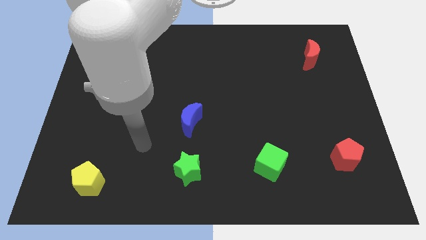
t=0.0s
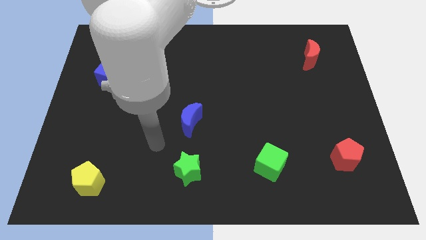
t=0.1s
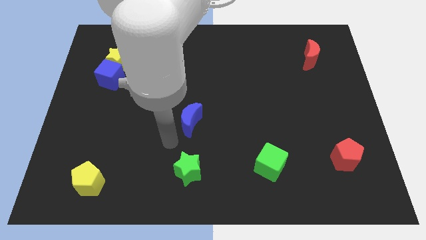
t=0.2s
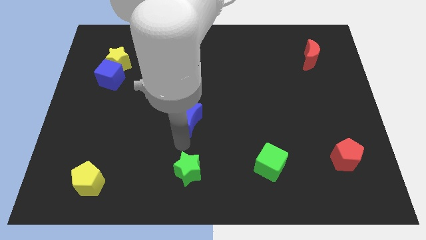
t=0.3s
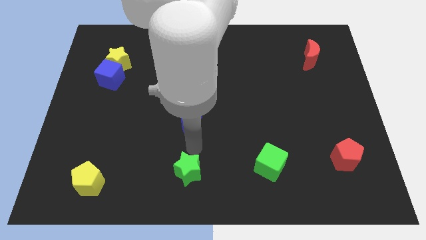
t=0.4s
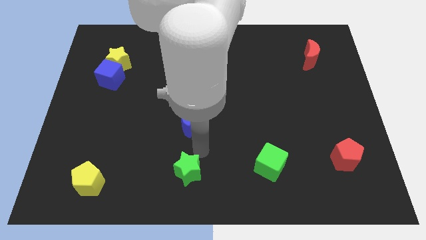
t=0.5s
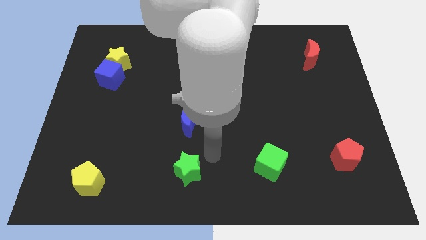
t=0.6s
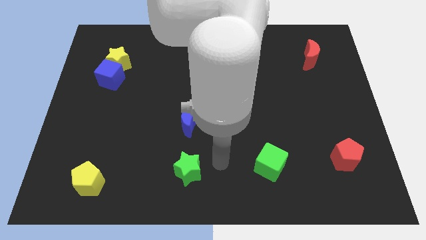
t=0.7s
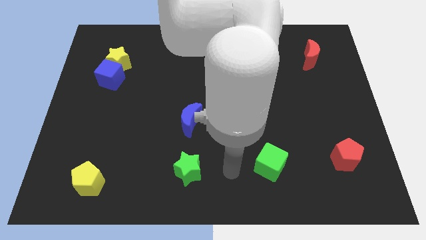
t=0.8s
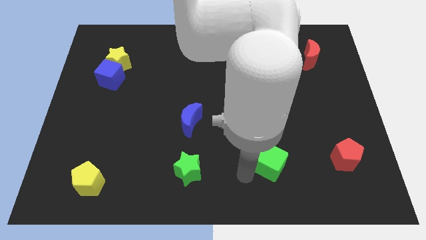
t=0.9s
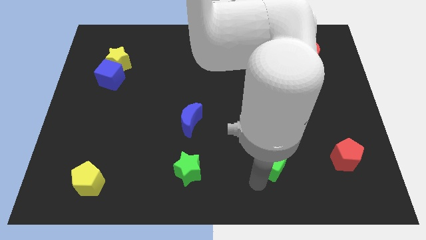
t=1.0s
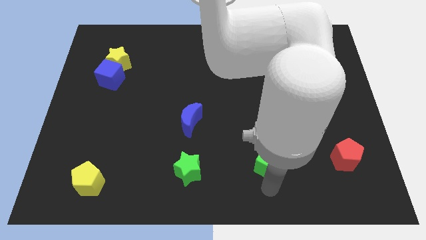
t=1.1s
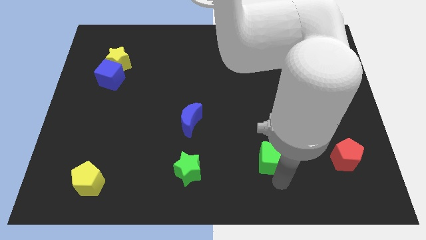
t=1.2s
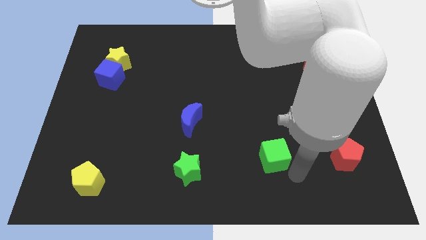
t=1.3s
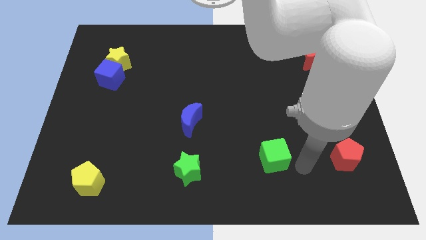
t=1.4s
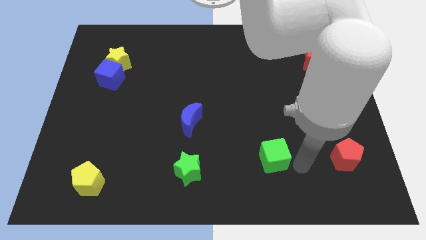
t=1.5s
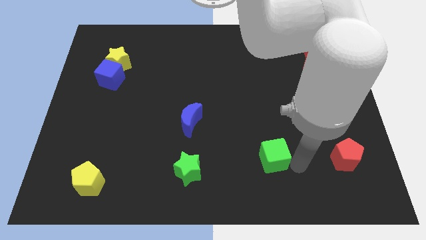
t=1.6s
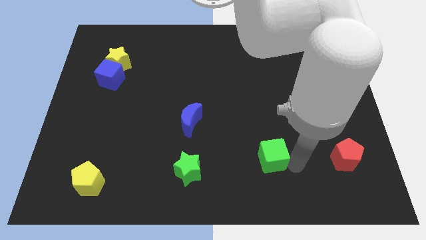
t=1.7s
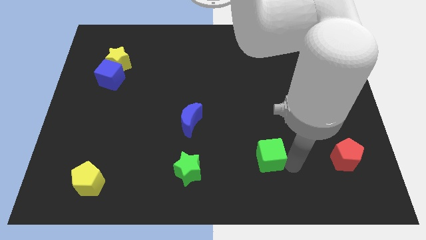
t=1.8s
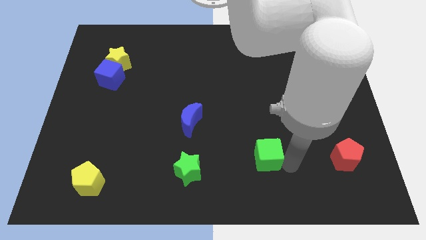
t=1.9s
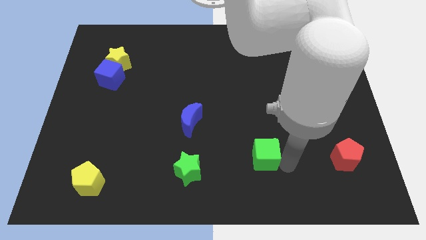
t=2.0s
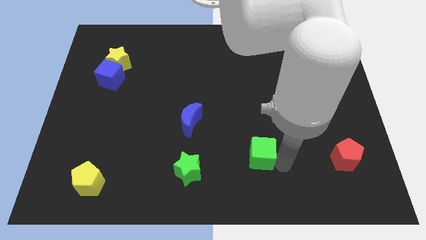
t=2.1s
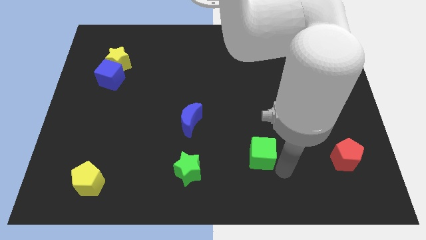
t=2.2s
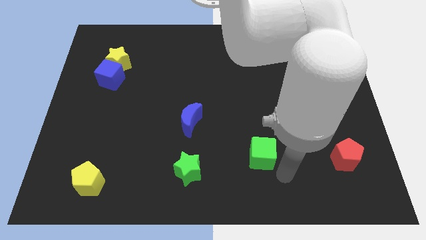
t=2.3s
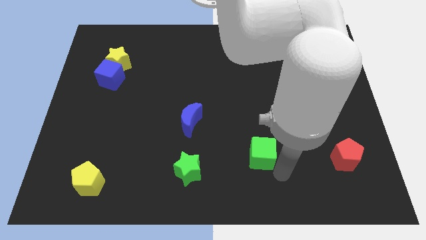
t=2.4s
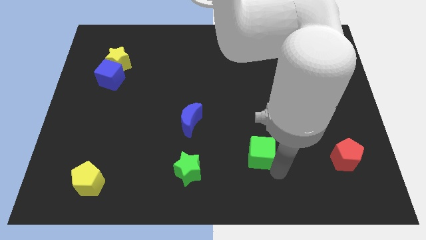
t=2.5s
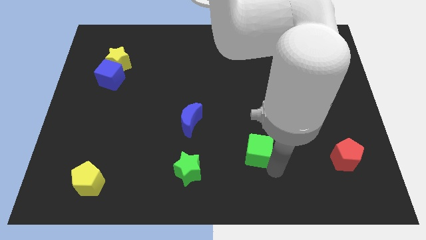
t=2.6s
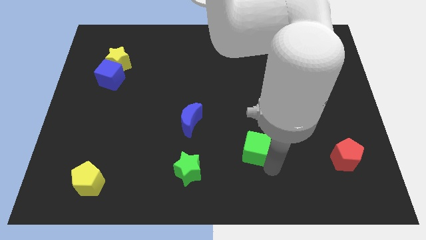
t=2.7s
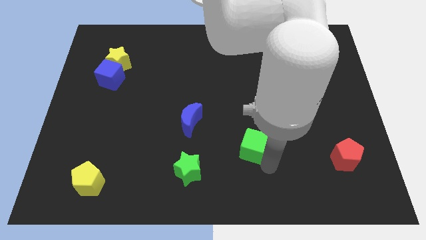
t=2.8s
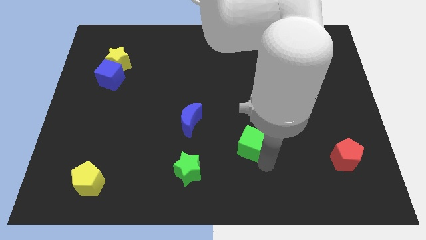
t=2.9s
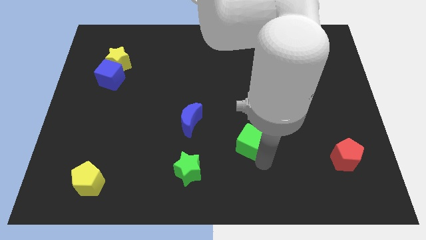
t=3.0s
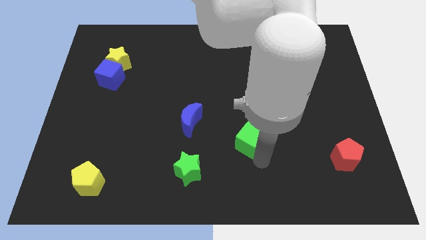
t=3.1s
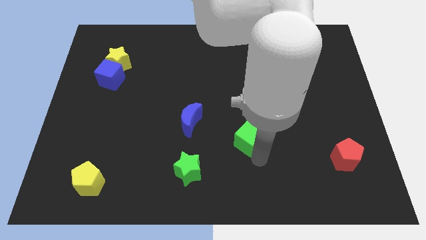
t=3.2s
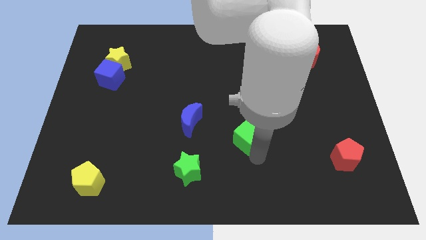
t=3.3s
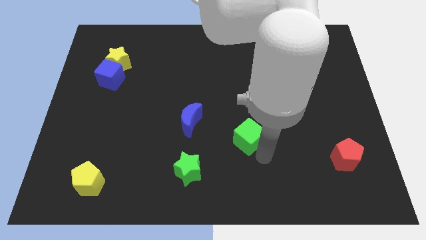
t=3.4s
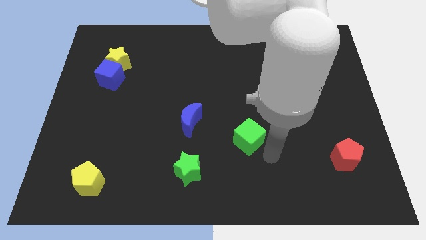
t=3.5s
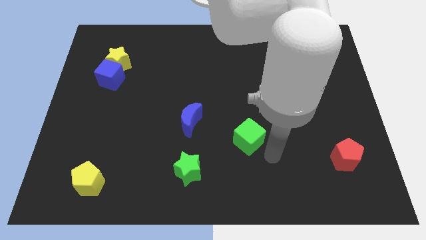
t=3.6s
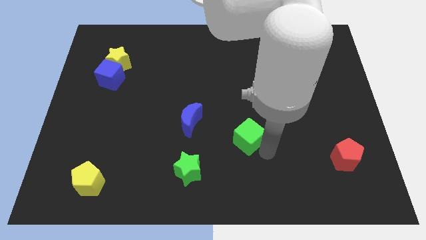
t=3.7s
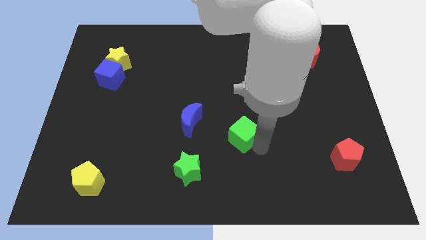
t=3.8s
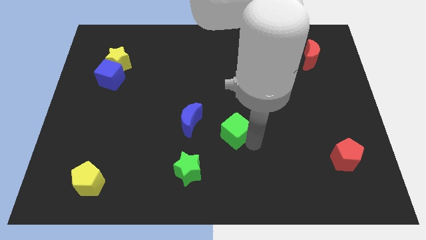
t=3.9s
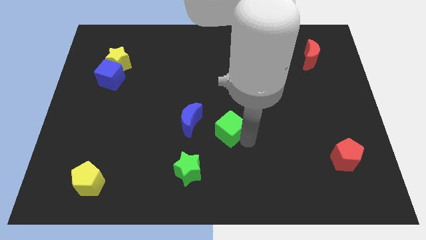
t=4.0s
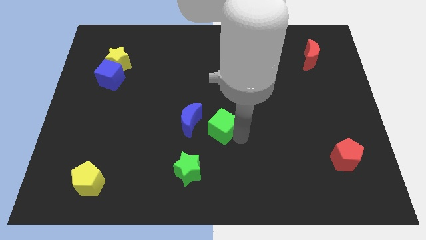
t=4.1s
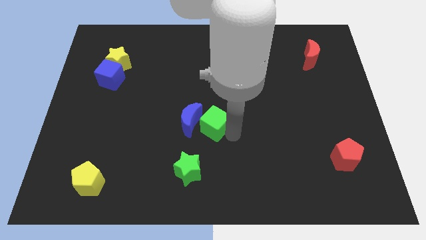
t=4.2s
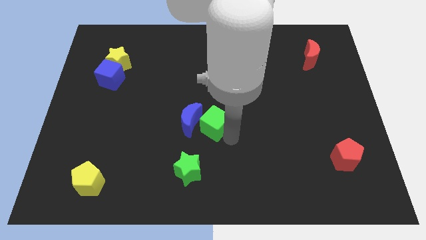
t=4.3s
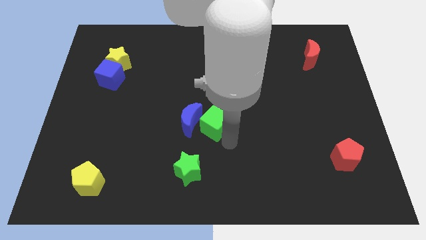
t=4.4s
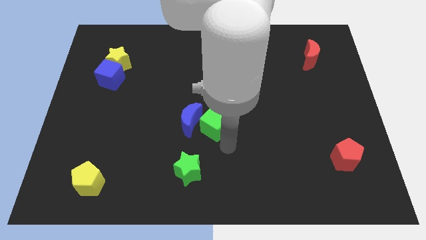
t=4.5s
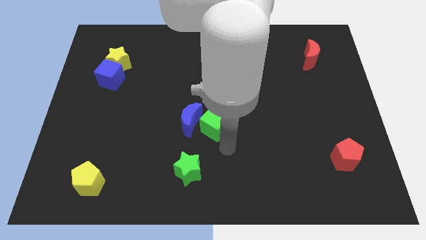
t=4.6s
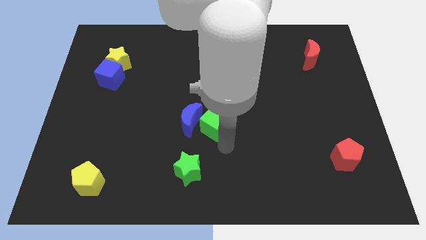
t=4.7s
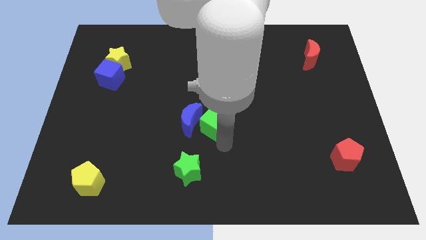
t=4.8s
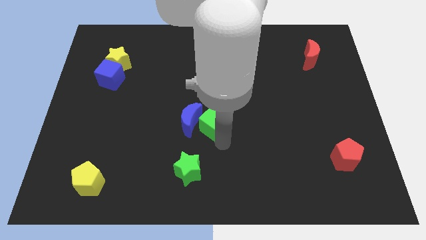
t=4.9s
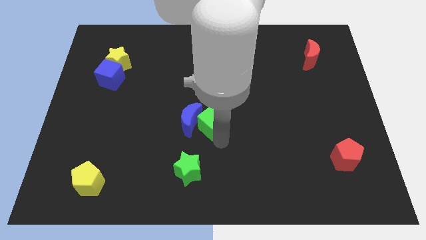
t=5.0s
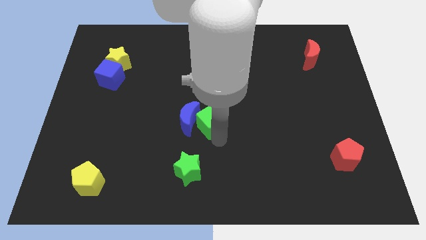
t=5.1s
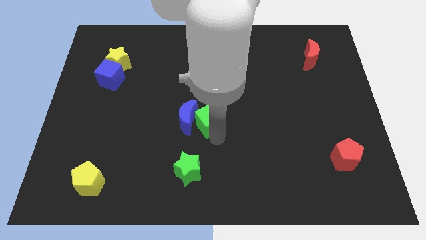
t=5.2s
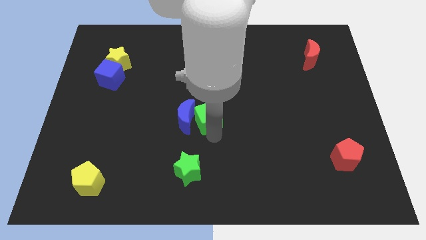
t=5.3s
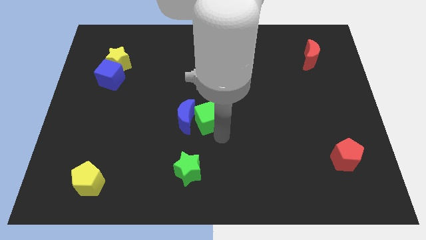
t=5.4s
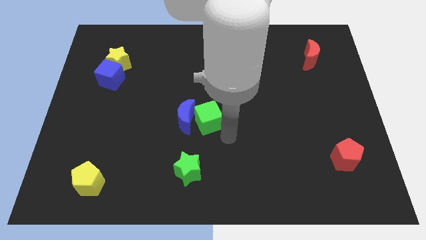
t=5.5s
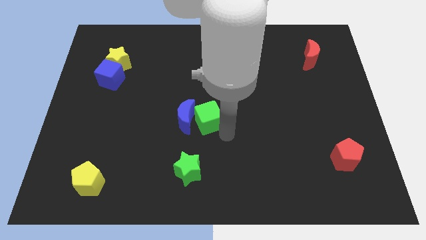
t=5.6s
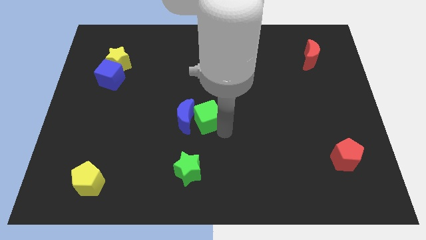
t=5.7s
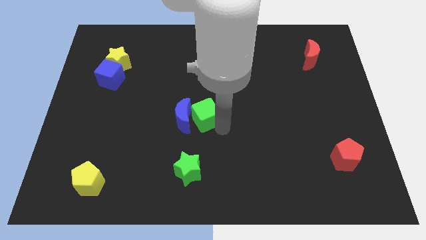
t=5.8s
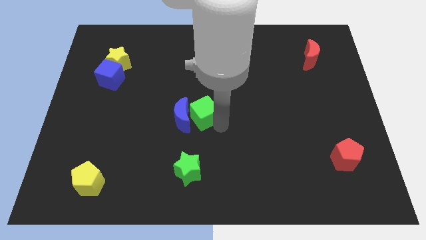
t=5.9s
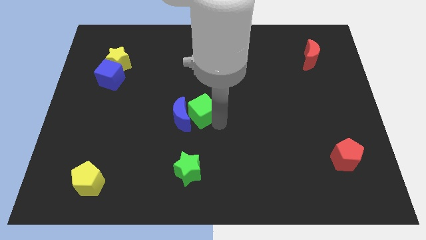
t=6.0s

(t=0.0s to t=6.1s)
slide the green cube up and to the left

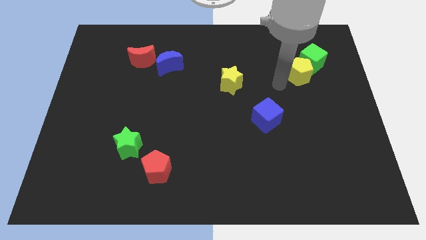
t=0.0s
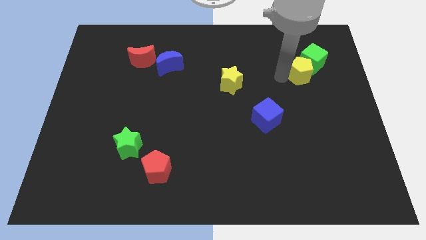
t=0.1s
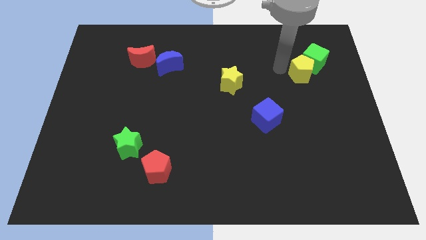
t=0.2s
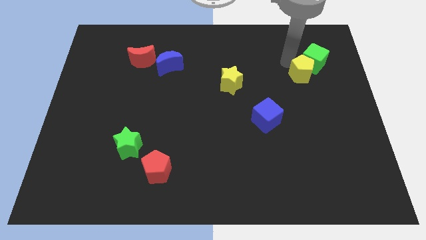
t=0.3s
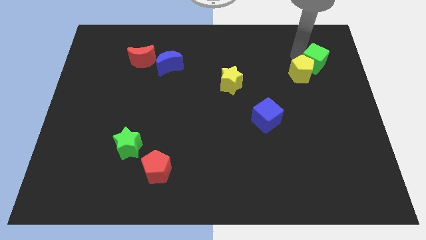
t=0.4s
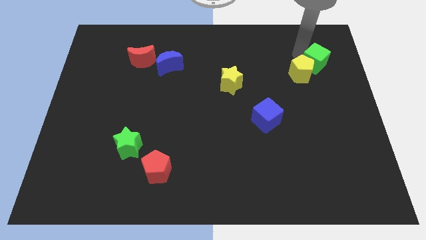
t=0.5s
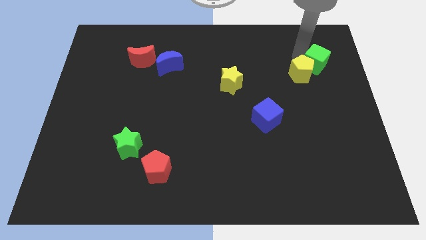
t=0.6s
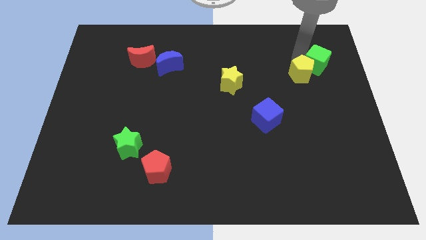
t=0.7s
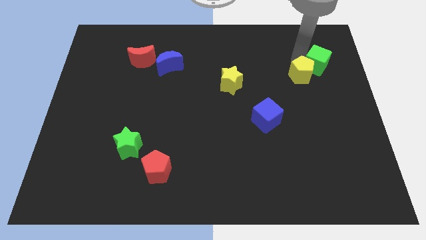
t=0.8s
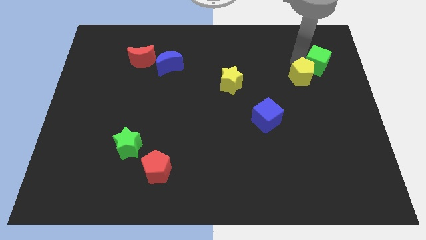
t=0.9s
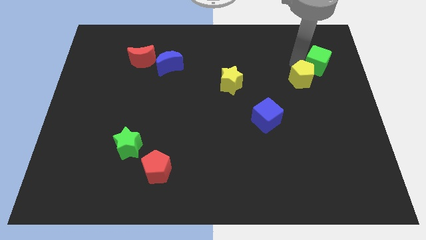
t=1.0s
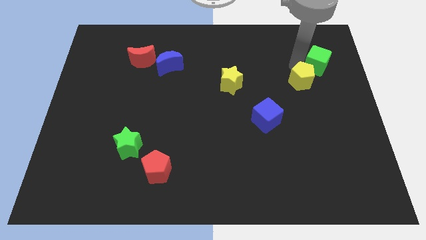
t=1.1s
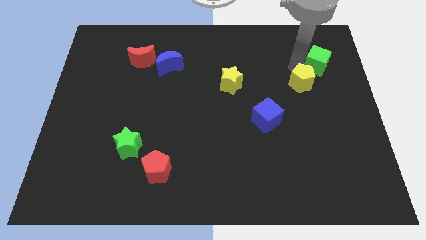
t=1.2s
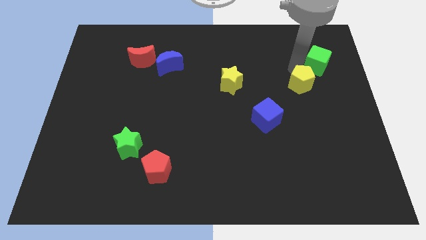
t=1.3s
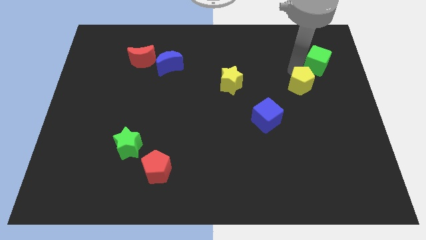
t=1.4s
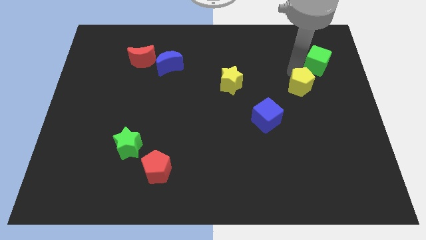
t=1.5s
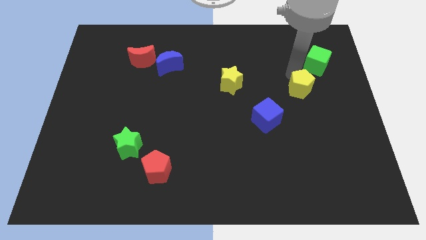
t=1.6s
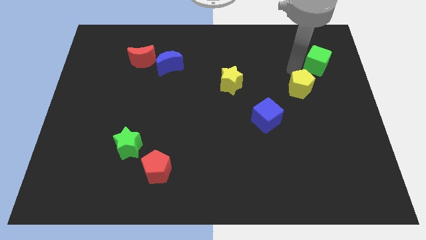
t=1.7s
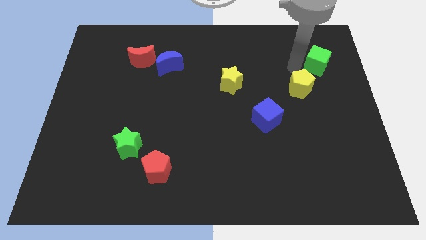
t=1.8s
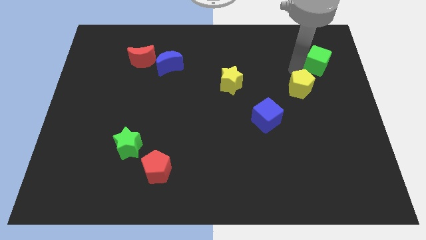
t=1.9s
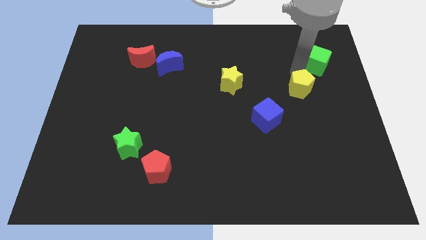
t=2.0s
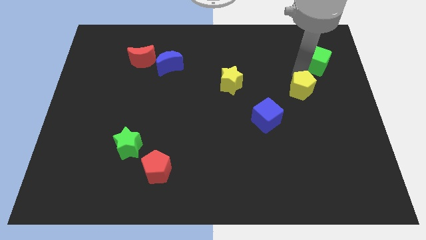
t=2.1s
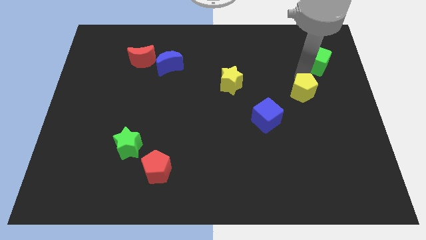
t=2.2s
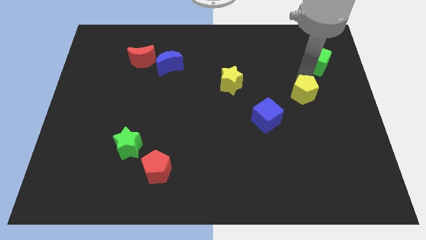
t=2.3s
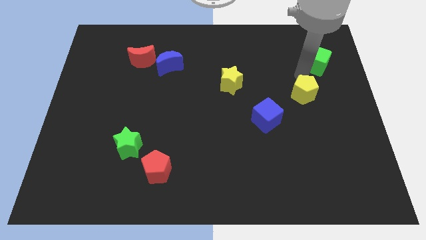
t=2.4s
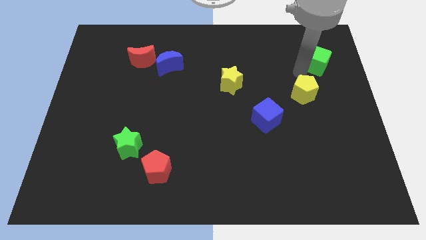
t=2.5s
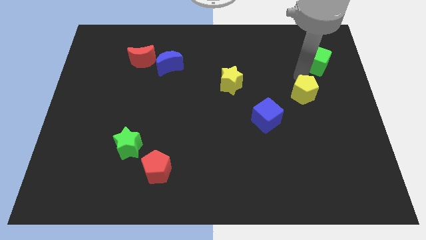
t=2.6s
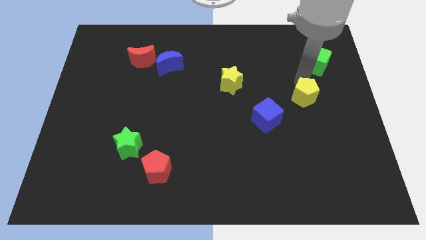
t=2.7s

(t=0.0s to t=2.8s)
push the yellow pentagon somewhat down
